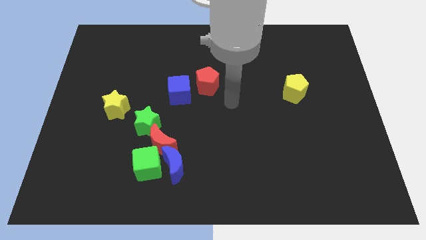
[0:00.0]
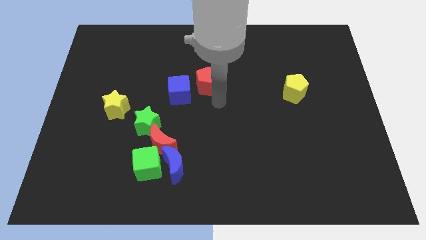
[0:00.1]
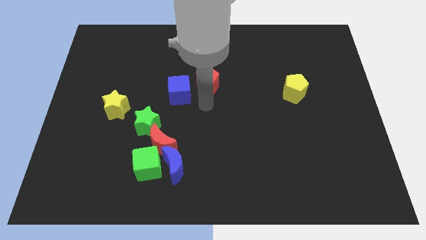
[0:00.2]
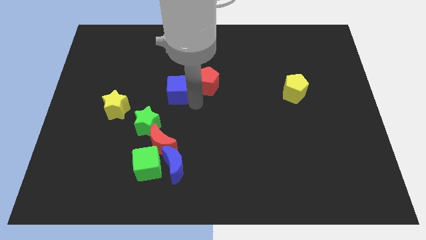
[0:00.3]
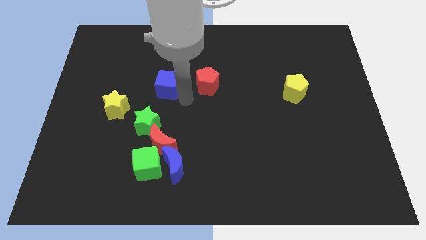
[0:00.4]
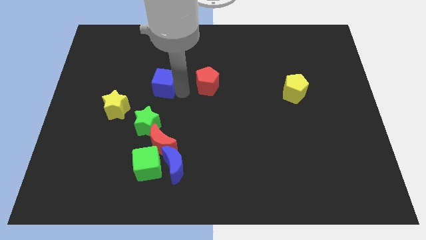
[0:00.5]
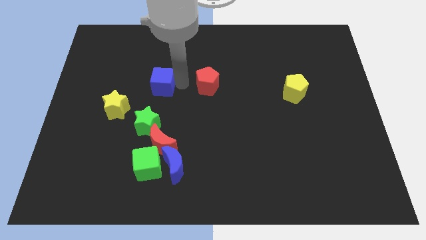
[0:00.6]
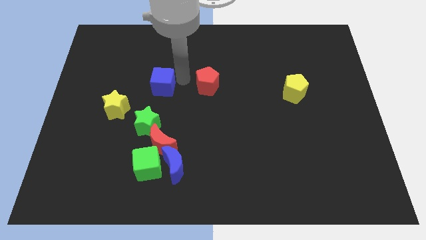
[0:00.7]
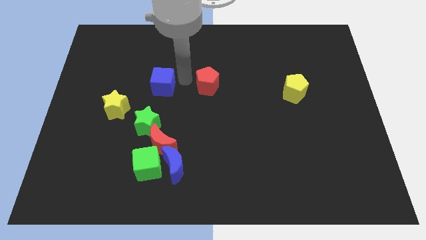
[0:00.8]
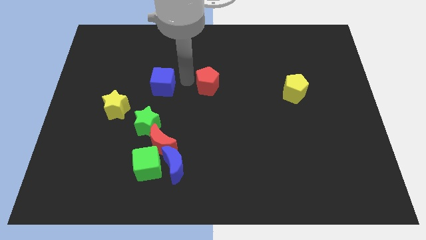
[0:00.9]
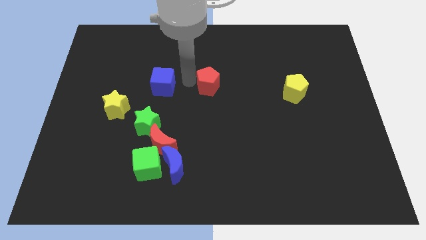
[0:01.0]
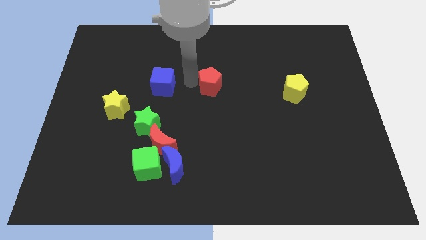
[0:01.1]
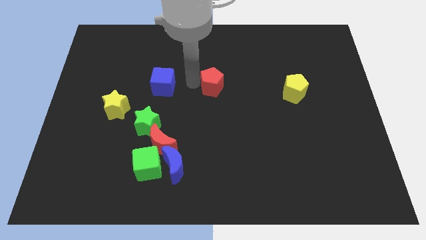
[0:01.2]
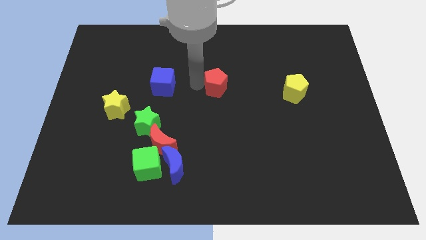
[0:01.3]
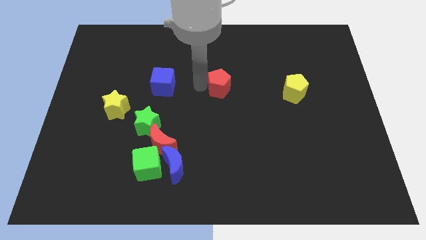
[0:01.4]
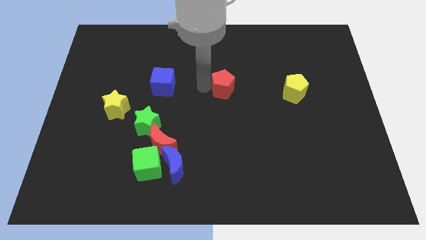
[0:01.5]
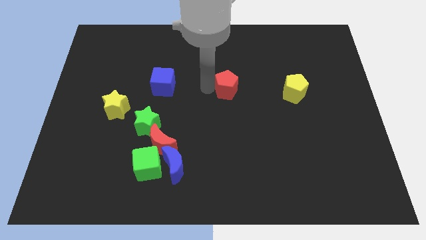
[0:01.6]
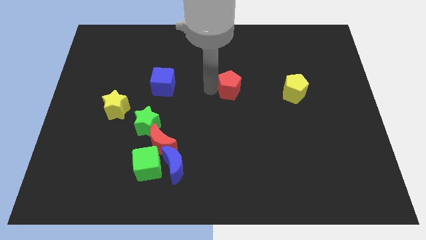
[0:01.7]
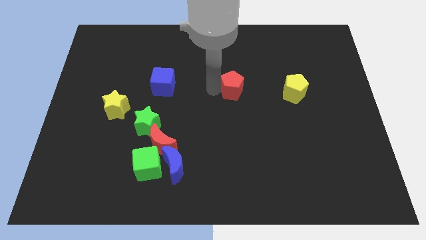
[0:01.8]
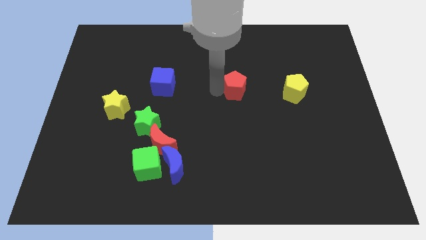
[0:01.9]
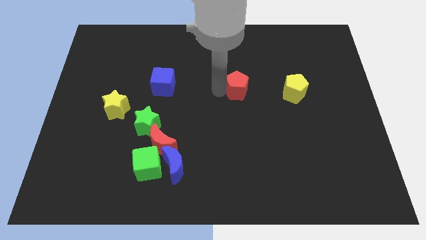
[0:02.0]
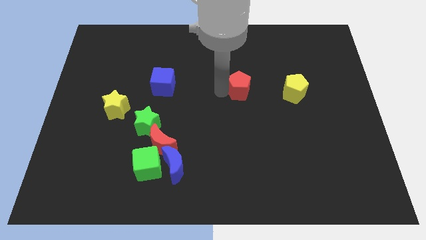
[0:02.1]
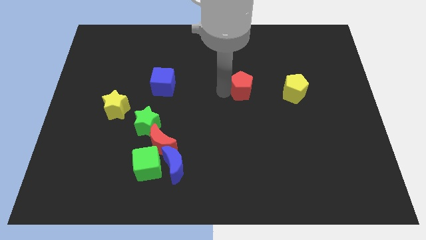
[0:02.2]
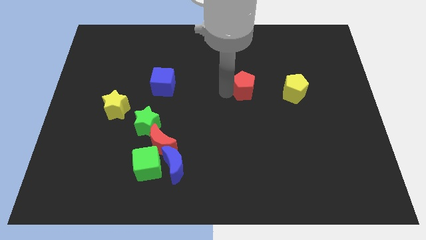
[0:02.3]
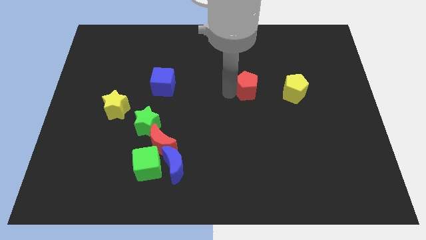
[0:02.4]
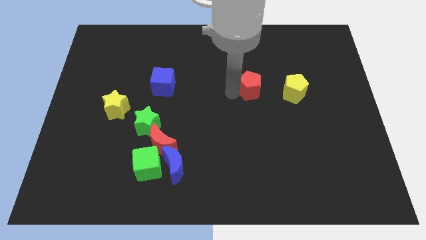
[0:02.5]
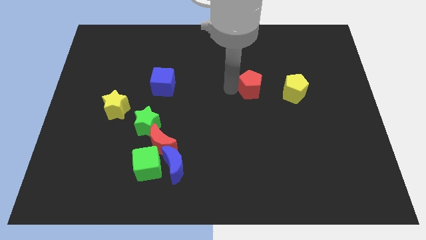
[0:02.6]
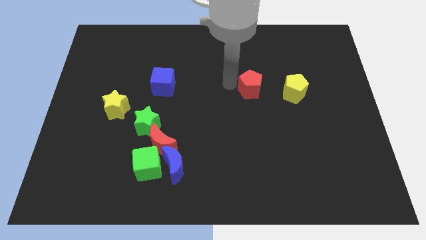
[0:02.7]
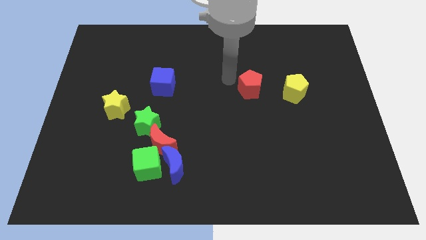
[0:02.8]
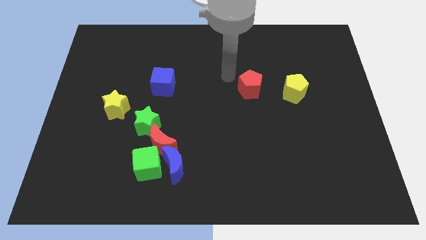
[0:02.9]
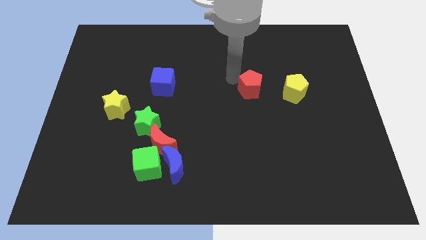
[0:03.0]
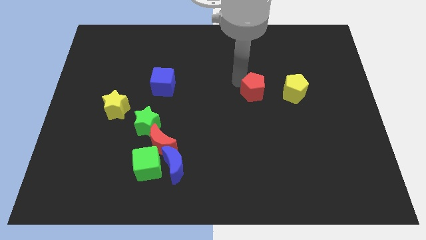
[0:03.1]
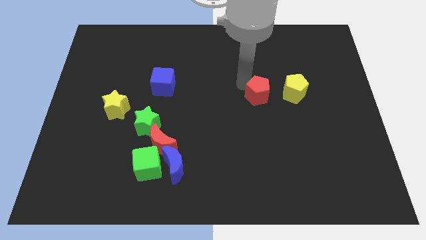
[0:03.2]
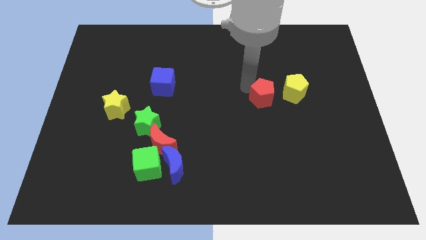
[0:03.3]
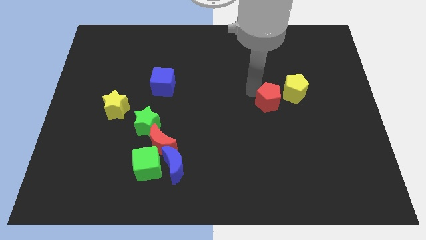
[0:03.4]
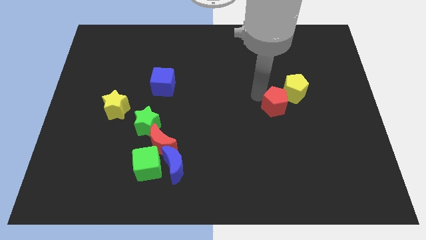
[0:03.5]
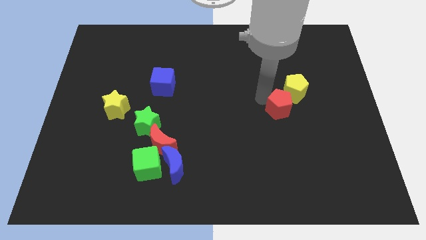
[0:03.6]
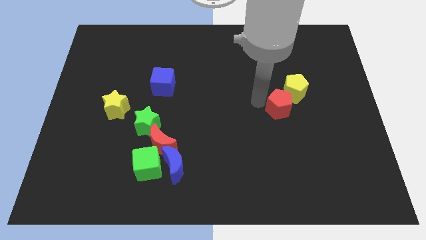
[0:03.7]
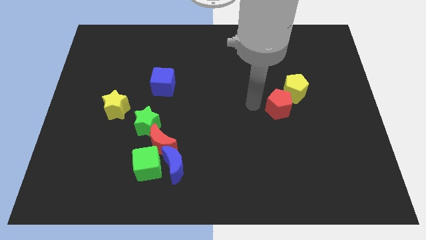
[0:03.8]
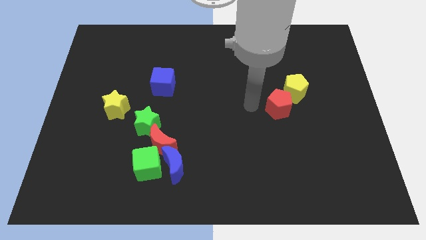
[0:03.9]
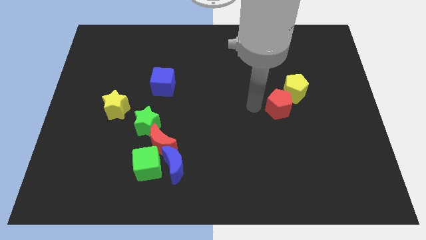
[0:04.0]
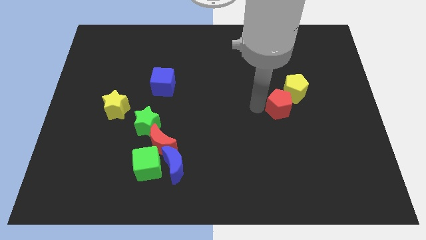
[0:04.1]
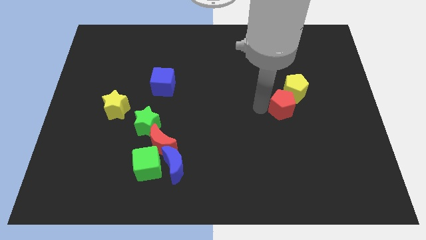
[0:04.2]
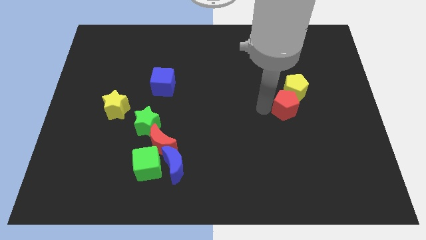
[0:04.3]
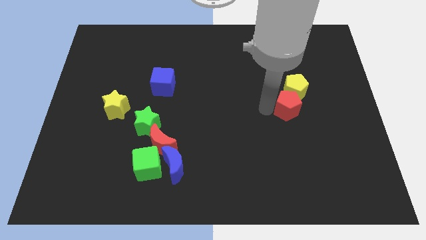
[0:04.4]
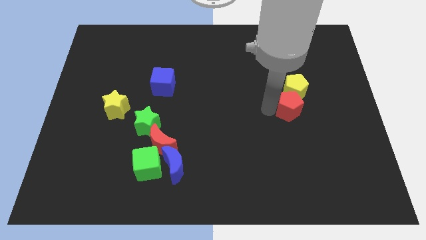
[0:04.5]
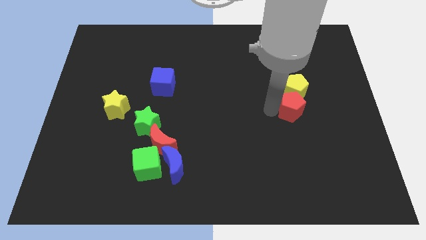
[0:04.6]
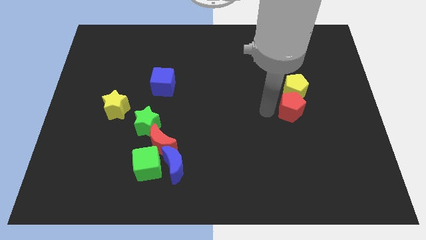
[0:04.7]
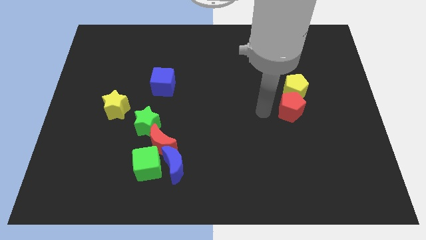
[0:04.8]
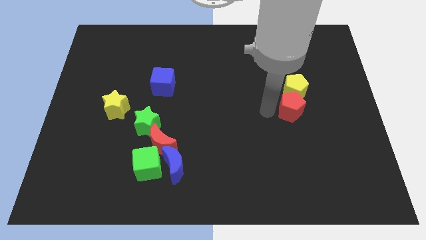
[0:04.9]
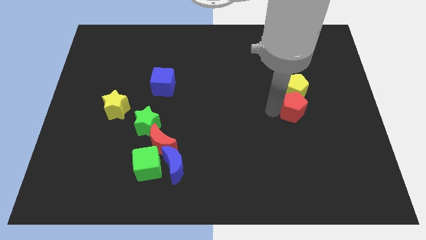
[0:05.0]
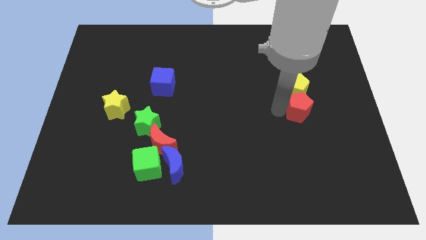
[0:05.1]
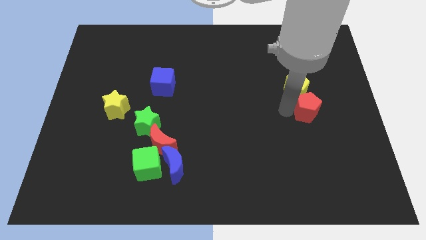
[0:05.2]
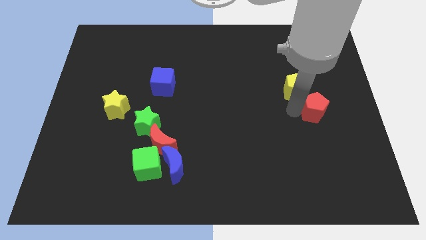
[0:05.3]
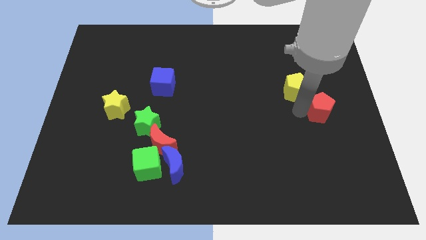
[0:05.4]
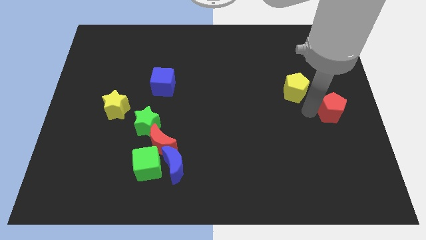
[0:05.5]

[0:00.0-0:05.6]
put the red pentagon to the center right

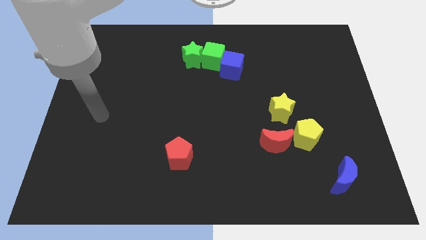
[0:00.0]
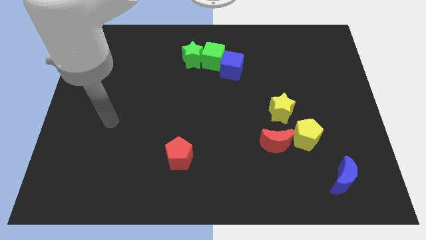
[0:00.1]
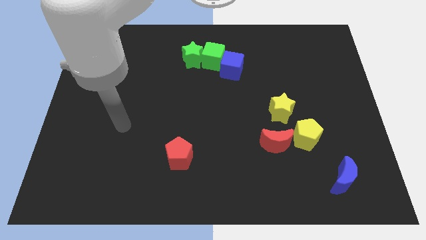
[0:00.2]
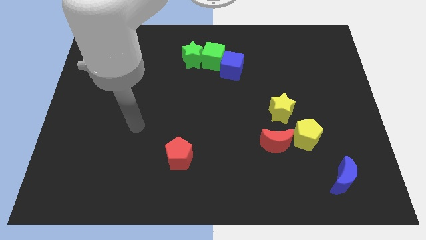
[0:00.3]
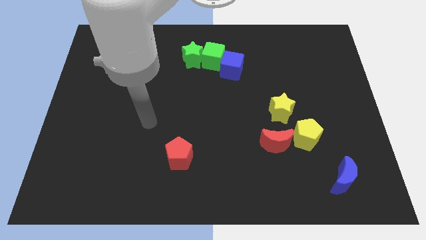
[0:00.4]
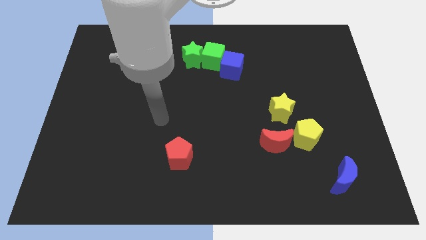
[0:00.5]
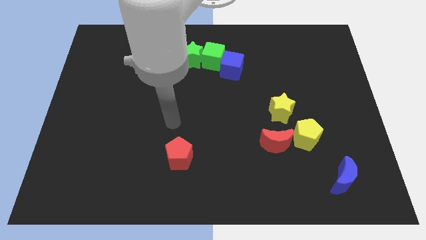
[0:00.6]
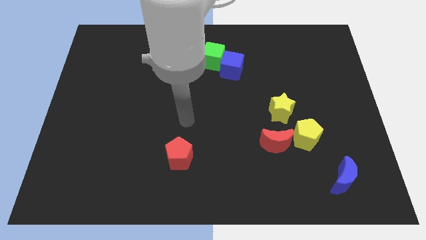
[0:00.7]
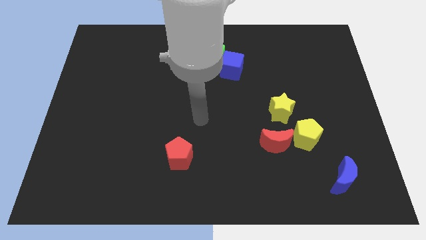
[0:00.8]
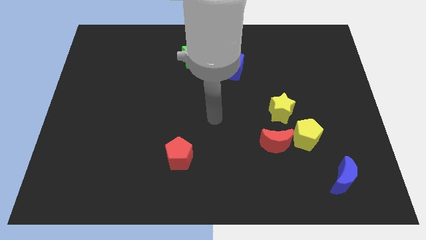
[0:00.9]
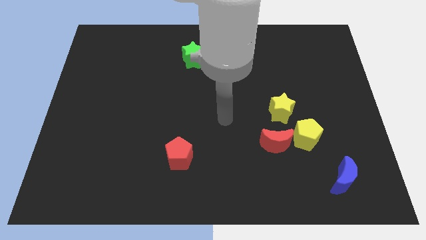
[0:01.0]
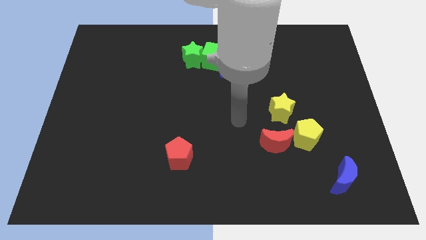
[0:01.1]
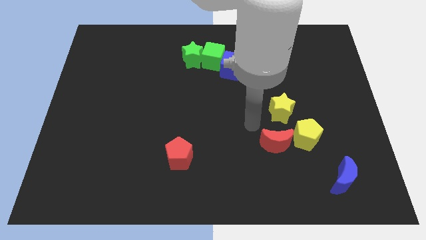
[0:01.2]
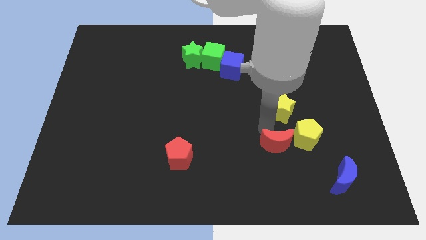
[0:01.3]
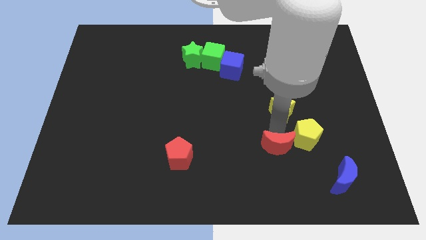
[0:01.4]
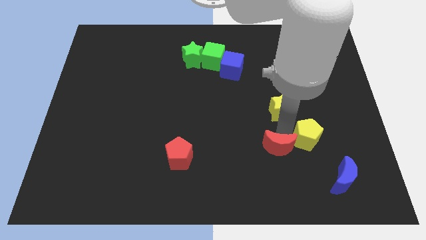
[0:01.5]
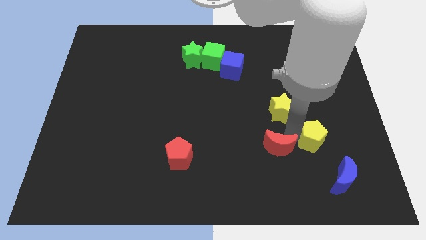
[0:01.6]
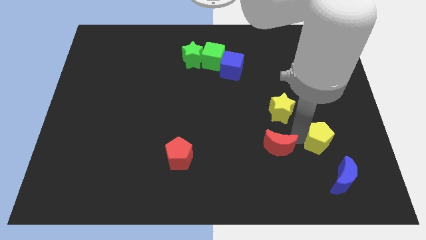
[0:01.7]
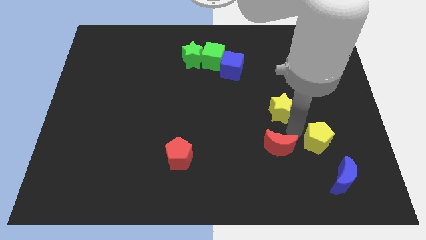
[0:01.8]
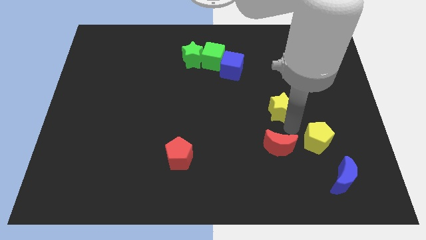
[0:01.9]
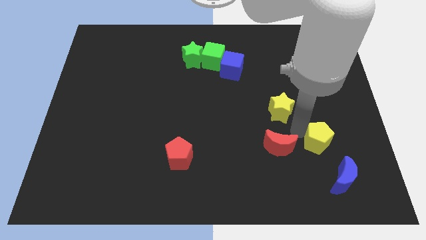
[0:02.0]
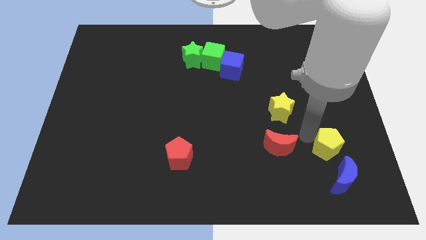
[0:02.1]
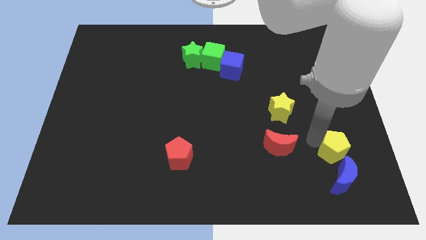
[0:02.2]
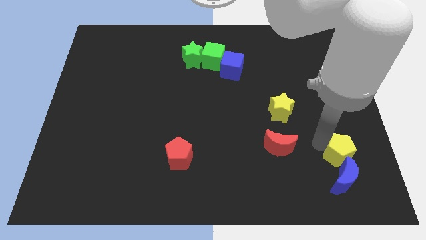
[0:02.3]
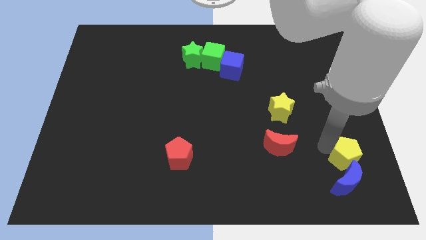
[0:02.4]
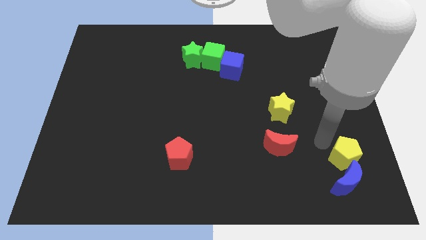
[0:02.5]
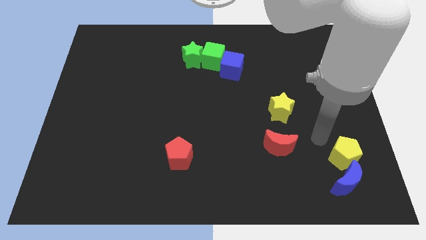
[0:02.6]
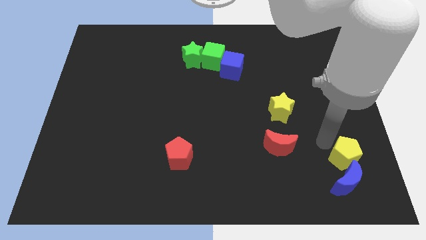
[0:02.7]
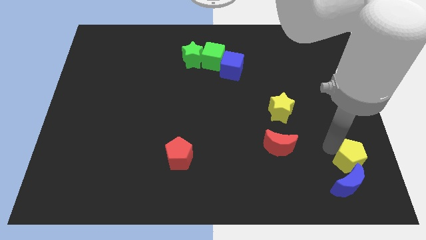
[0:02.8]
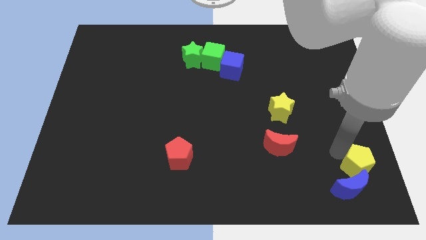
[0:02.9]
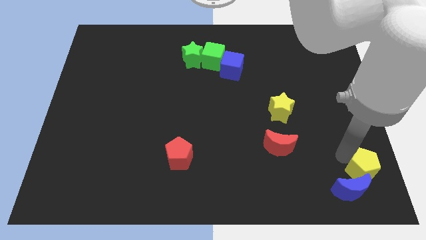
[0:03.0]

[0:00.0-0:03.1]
slide the yellow pentagon to the lower right corner
